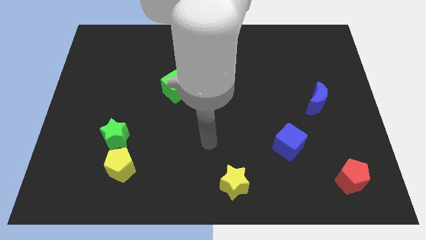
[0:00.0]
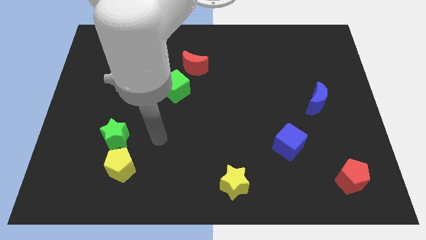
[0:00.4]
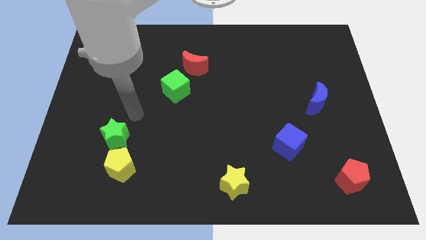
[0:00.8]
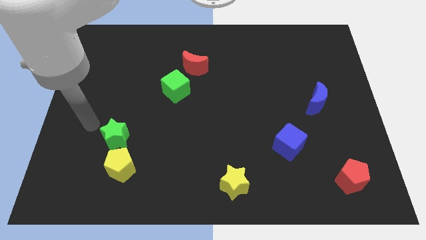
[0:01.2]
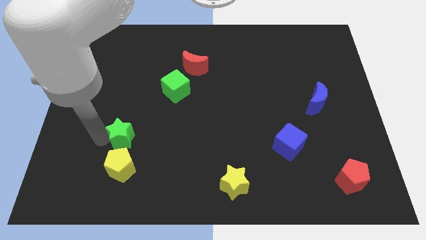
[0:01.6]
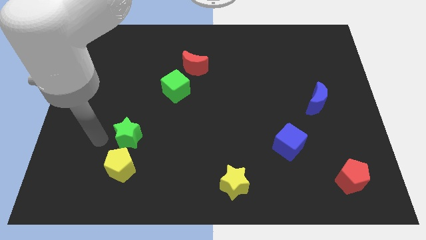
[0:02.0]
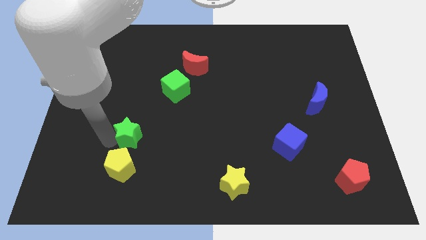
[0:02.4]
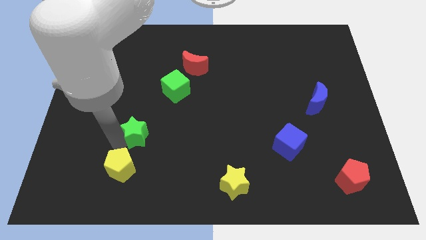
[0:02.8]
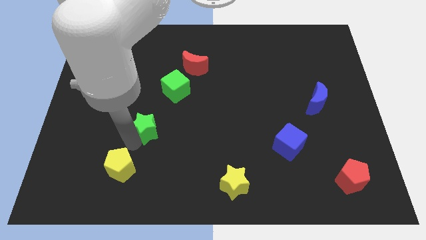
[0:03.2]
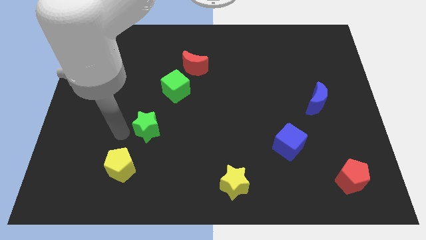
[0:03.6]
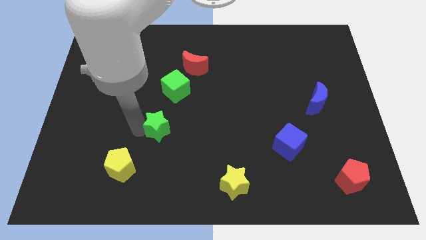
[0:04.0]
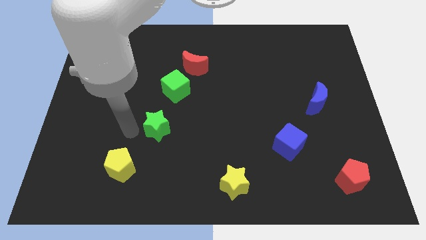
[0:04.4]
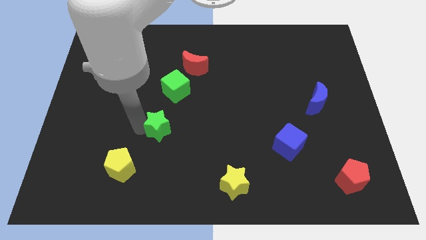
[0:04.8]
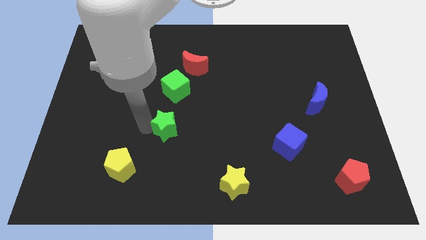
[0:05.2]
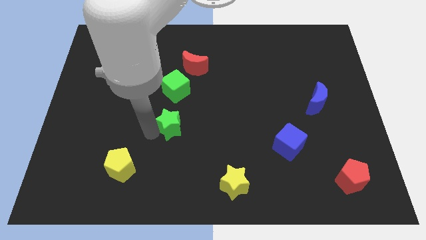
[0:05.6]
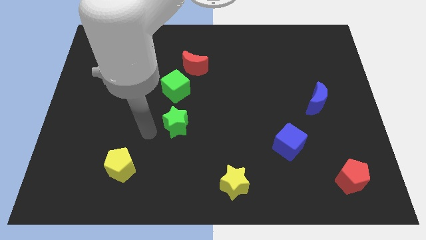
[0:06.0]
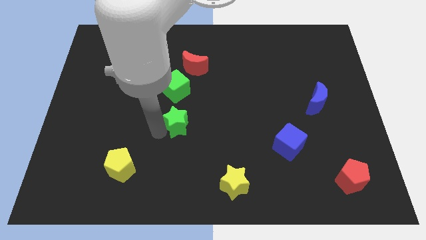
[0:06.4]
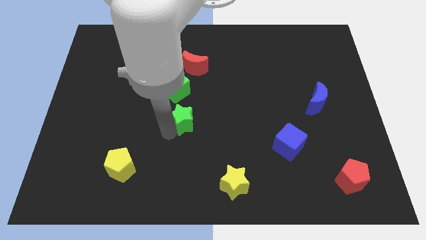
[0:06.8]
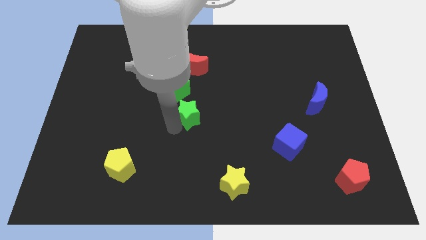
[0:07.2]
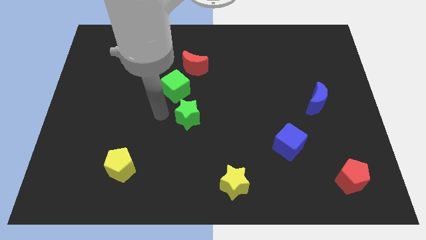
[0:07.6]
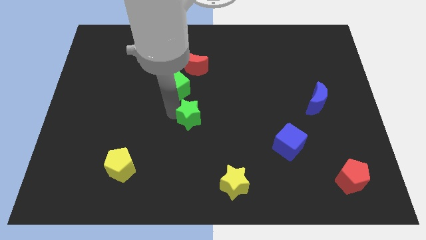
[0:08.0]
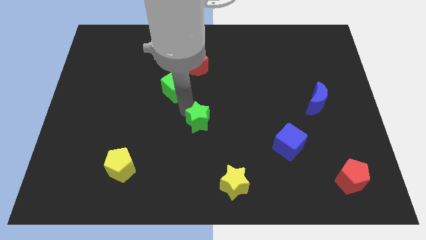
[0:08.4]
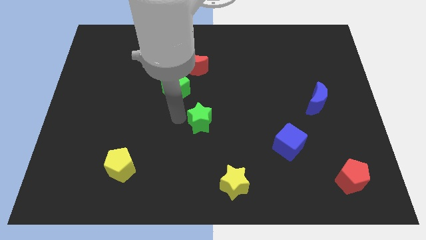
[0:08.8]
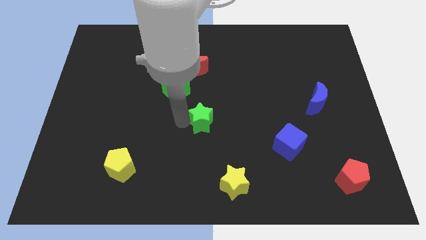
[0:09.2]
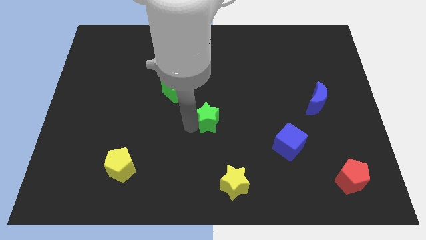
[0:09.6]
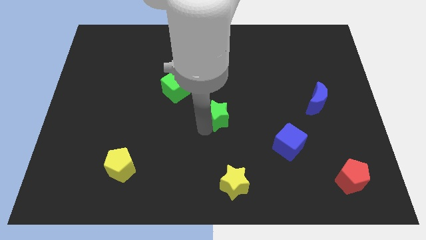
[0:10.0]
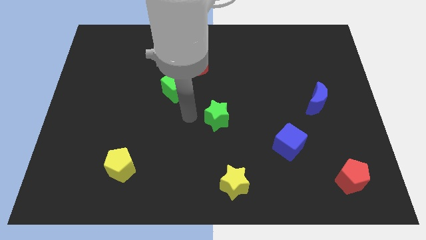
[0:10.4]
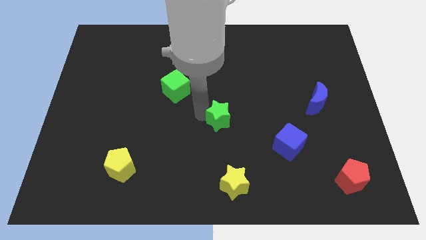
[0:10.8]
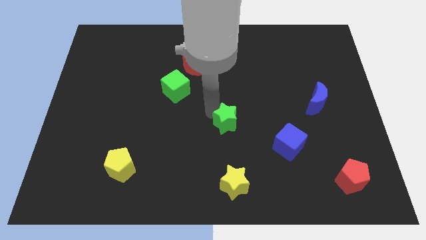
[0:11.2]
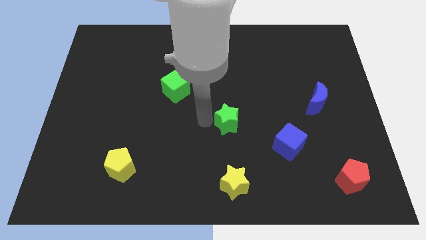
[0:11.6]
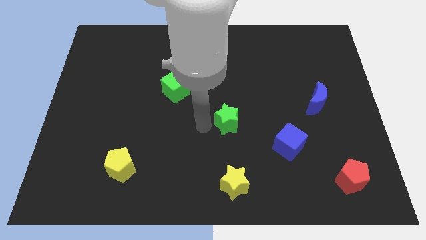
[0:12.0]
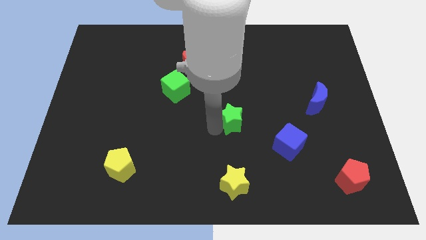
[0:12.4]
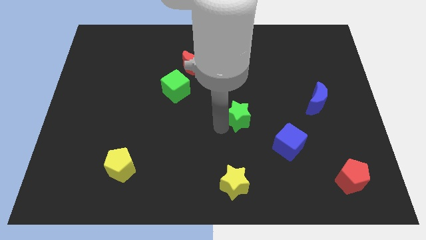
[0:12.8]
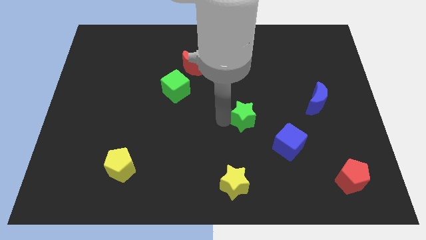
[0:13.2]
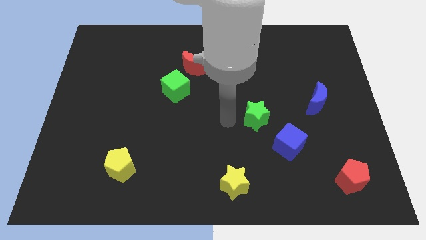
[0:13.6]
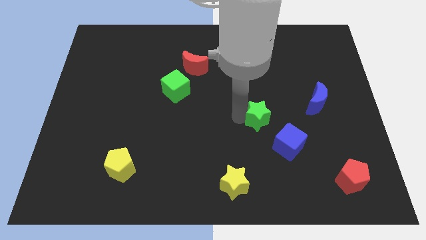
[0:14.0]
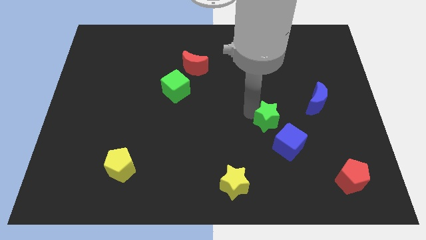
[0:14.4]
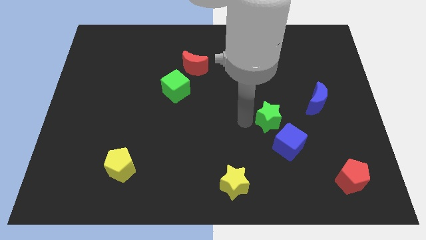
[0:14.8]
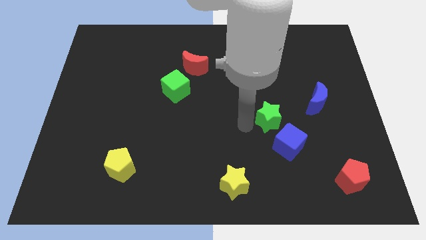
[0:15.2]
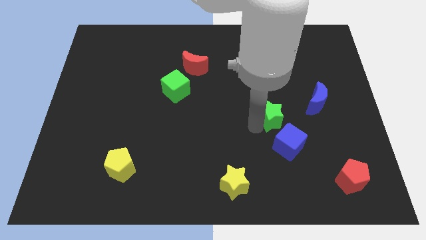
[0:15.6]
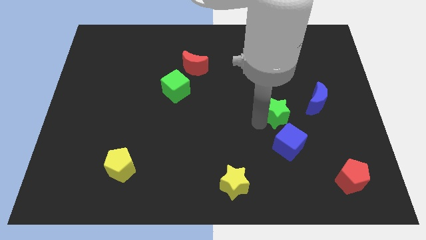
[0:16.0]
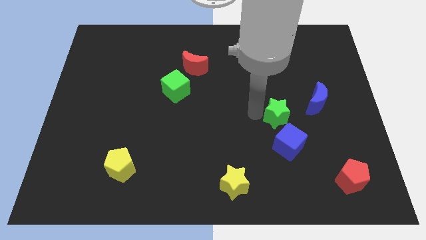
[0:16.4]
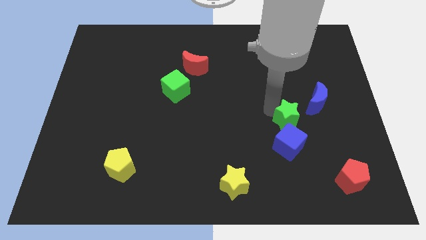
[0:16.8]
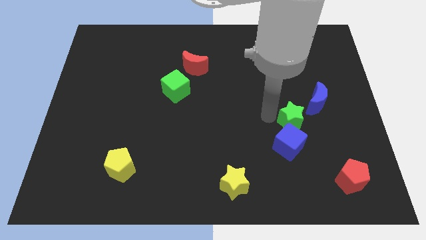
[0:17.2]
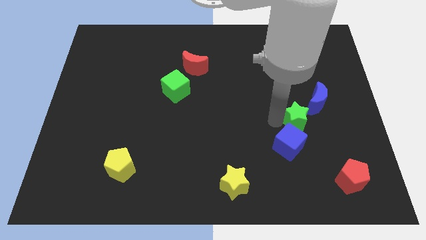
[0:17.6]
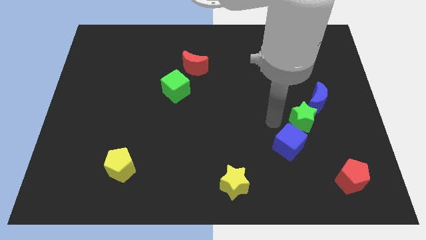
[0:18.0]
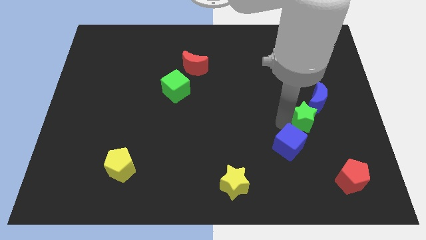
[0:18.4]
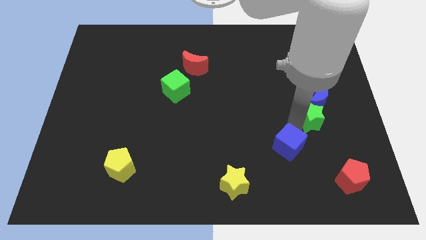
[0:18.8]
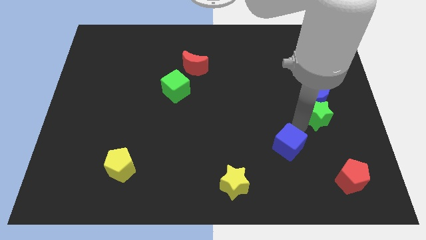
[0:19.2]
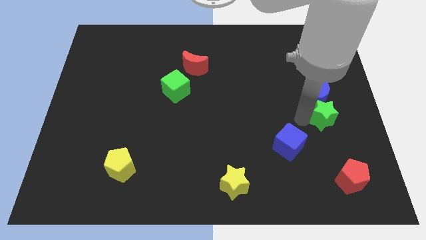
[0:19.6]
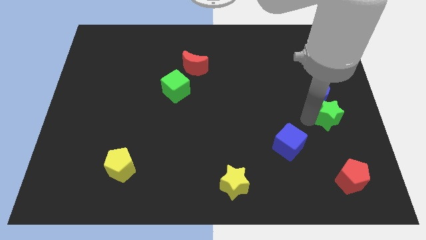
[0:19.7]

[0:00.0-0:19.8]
push the green star to the right side of the board

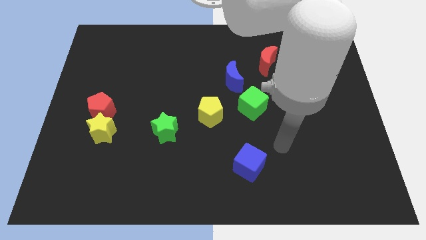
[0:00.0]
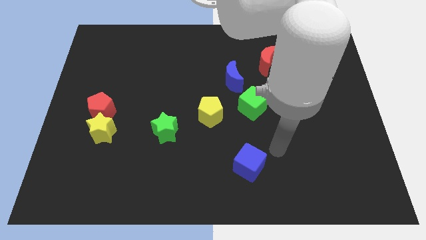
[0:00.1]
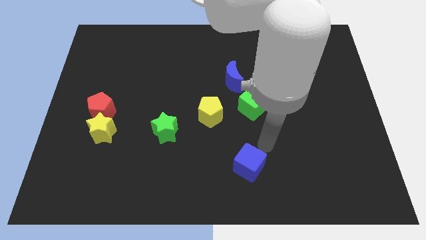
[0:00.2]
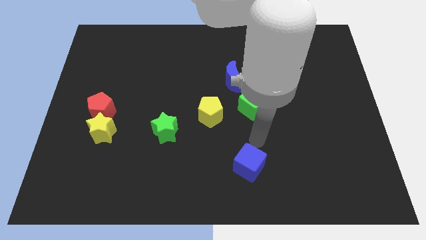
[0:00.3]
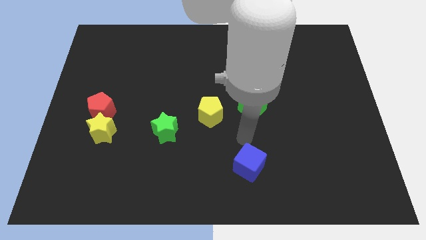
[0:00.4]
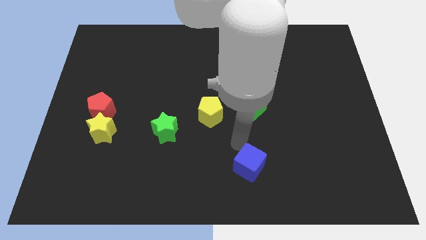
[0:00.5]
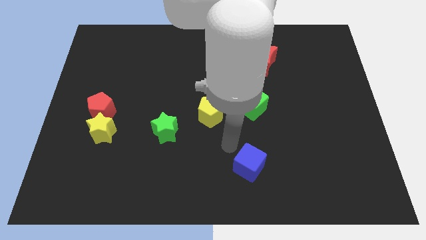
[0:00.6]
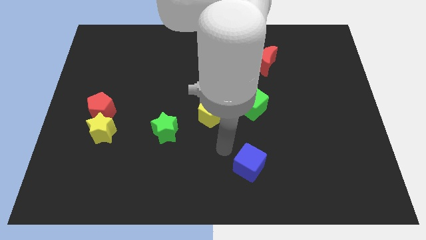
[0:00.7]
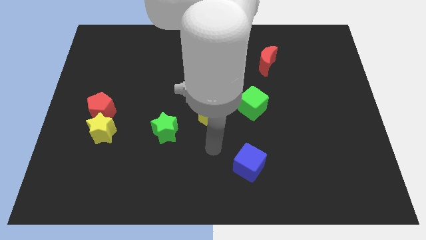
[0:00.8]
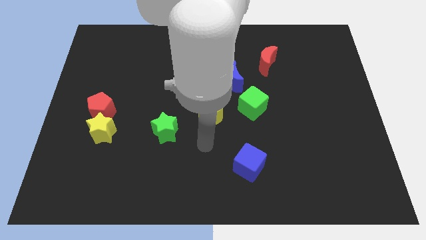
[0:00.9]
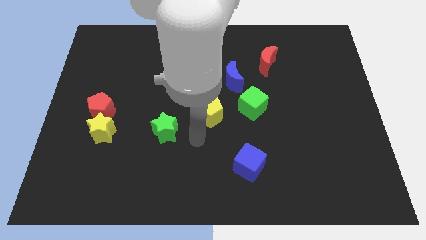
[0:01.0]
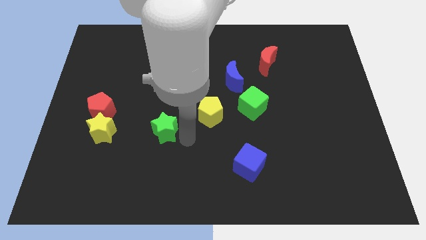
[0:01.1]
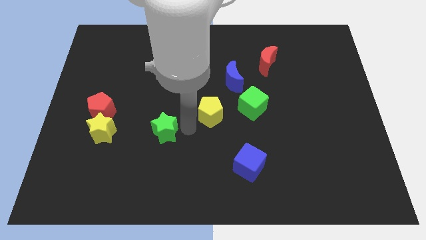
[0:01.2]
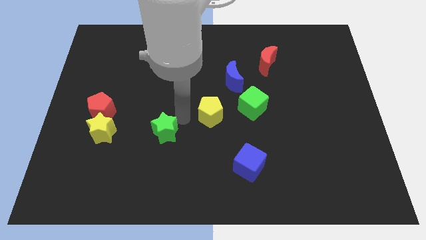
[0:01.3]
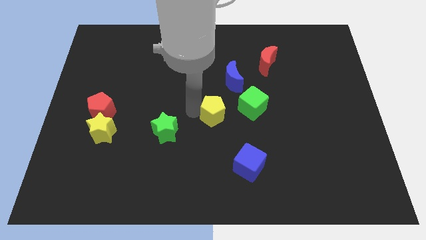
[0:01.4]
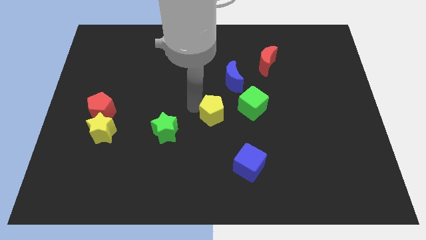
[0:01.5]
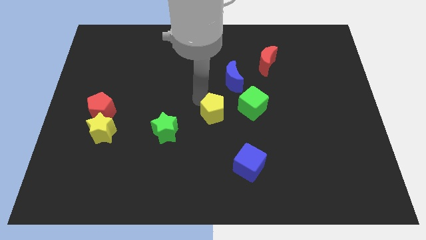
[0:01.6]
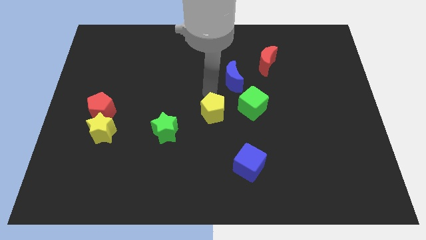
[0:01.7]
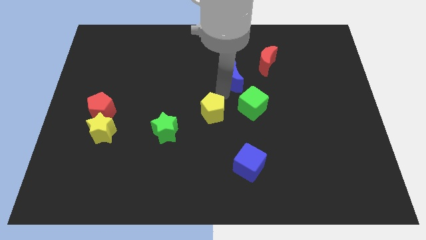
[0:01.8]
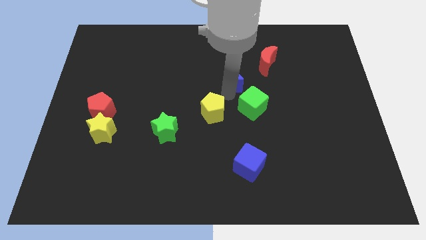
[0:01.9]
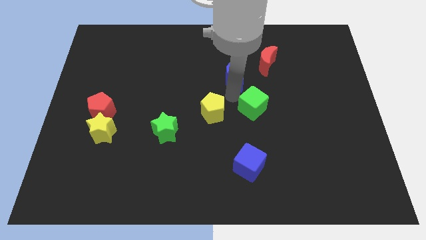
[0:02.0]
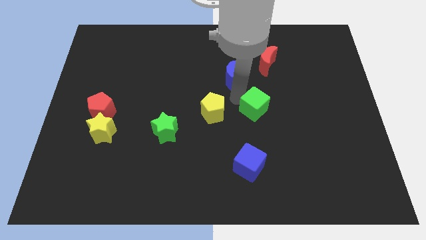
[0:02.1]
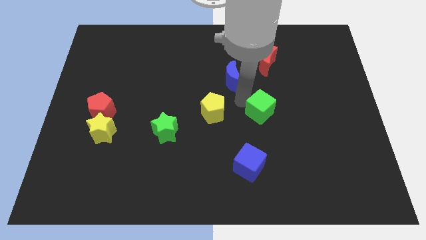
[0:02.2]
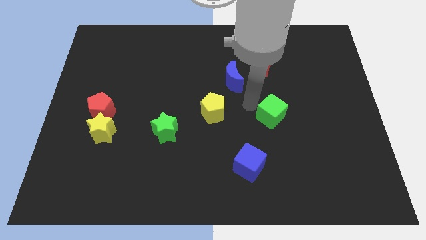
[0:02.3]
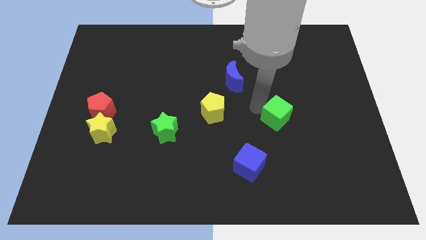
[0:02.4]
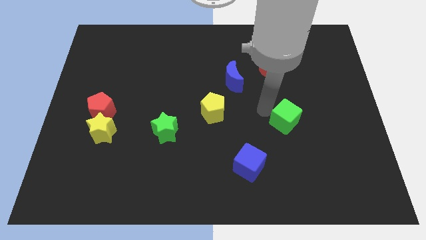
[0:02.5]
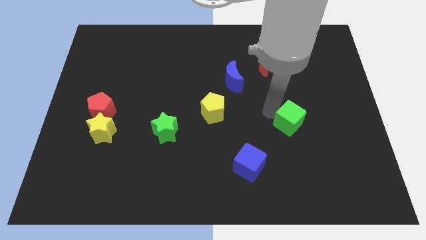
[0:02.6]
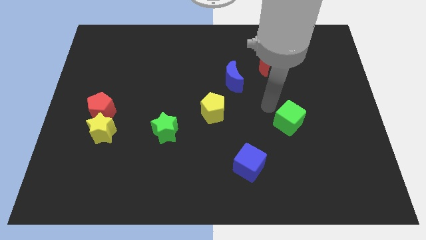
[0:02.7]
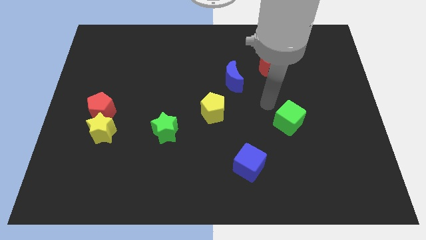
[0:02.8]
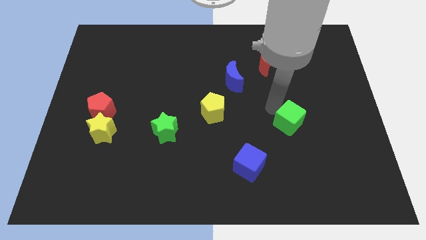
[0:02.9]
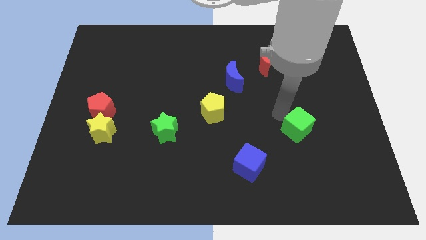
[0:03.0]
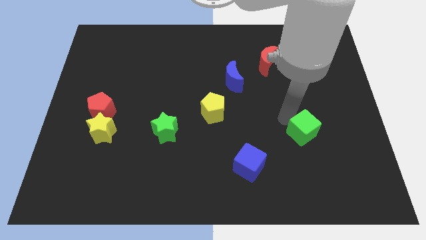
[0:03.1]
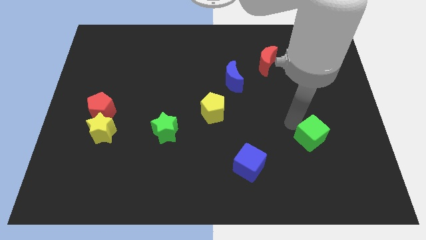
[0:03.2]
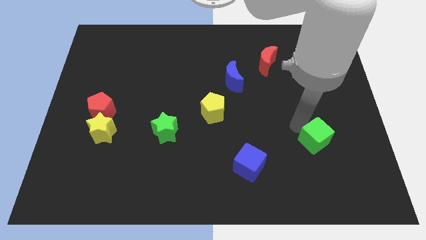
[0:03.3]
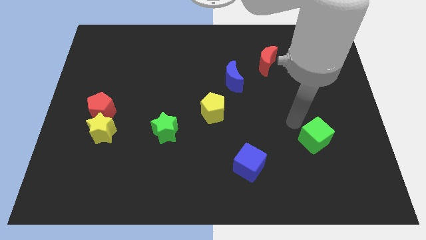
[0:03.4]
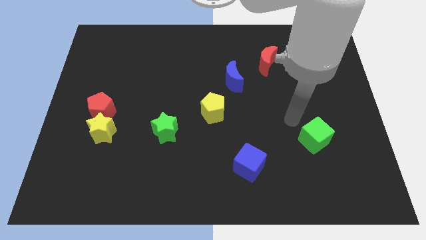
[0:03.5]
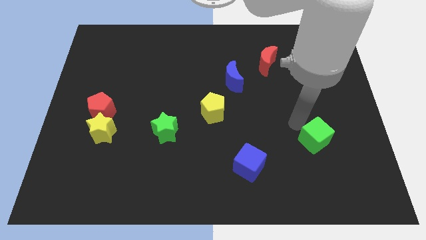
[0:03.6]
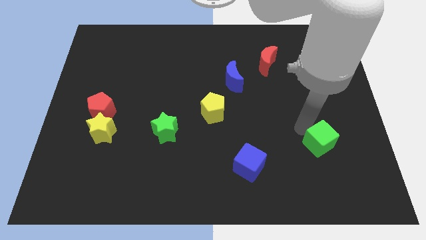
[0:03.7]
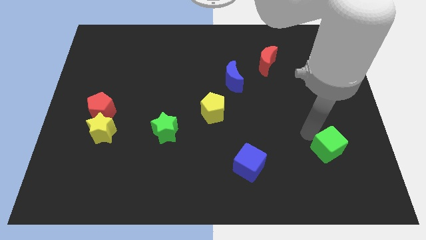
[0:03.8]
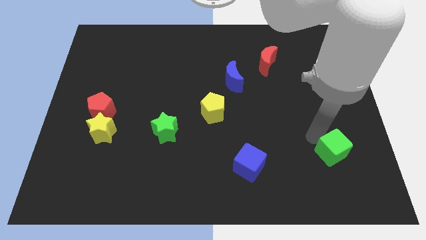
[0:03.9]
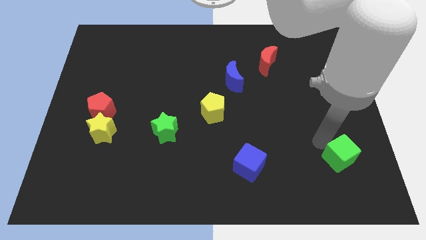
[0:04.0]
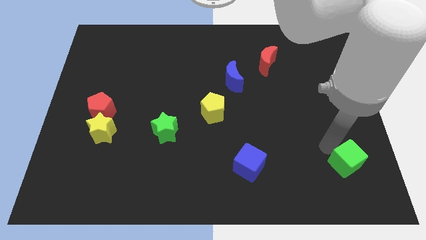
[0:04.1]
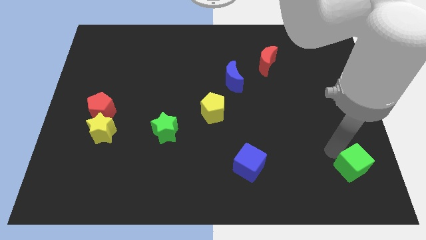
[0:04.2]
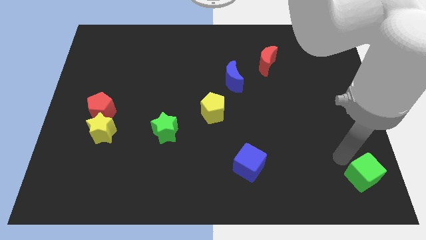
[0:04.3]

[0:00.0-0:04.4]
put the green cube to the bottom right
